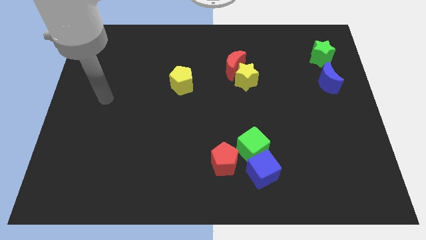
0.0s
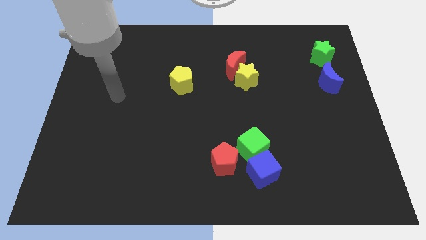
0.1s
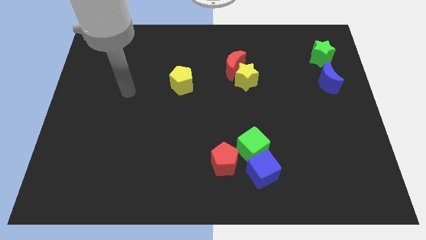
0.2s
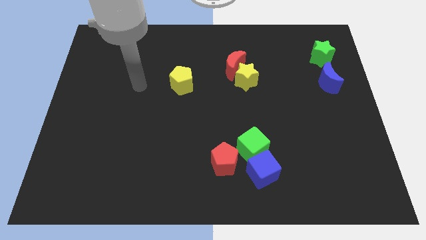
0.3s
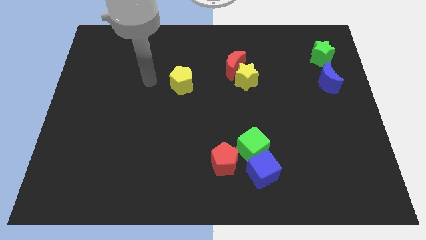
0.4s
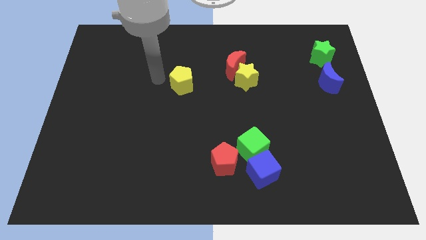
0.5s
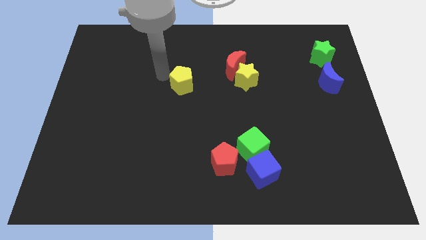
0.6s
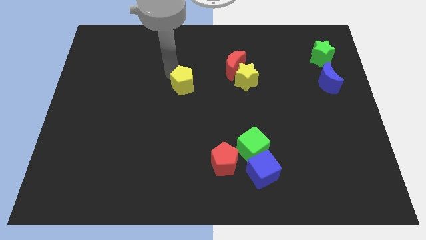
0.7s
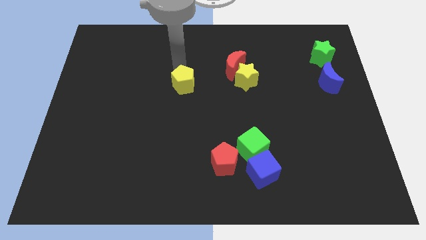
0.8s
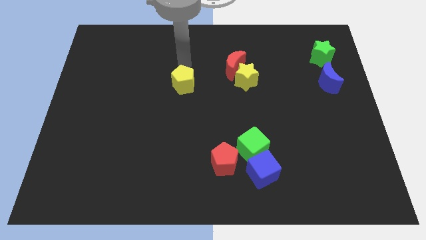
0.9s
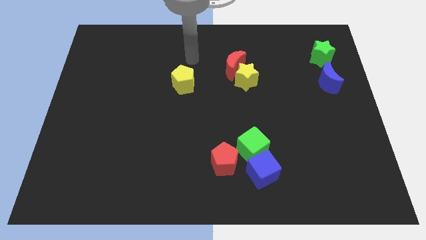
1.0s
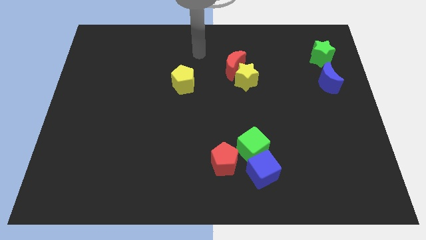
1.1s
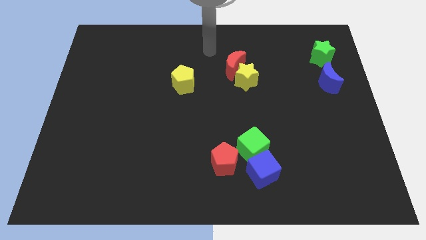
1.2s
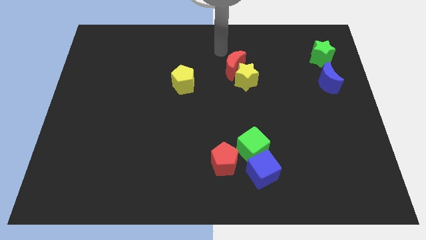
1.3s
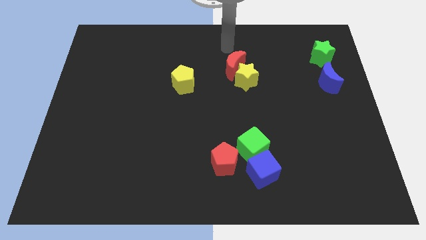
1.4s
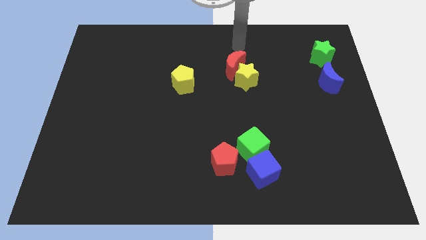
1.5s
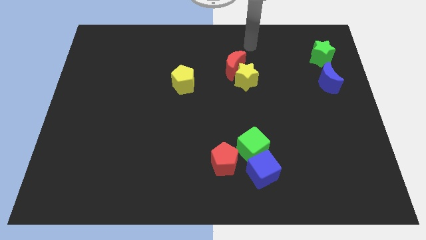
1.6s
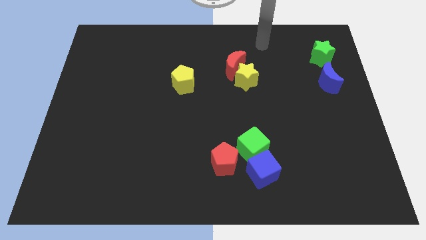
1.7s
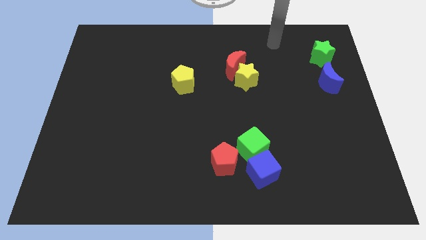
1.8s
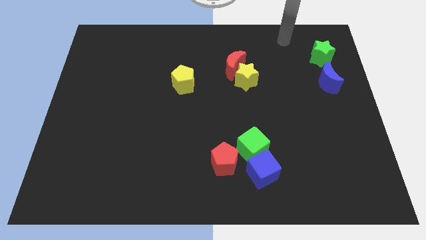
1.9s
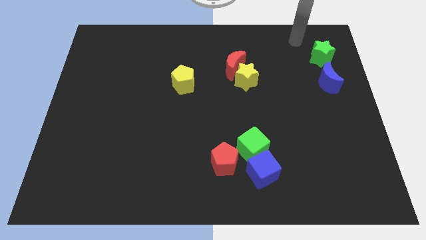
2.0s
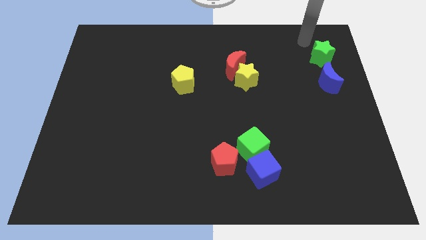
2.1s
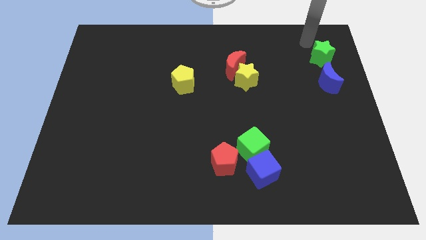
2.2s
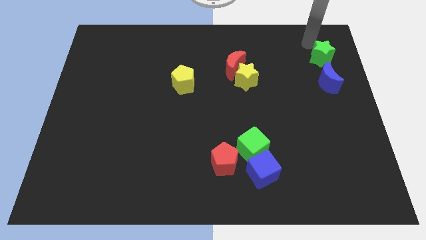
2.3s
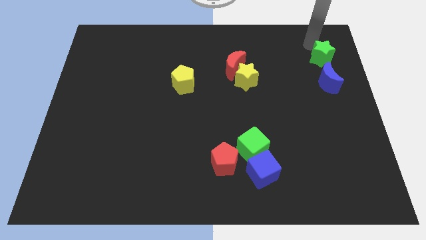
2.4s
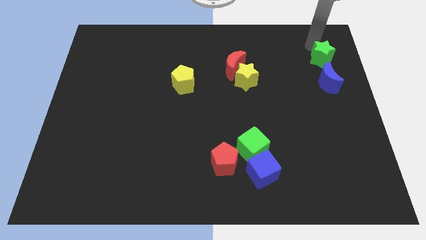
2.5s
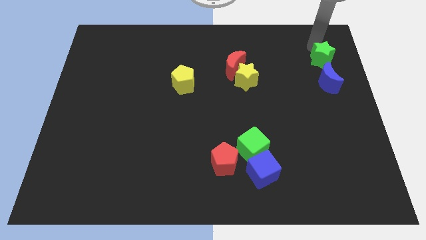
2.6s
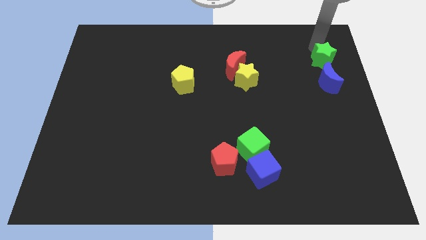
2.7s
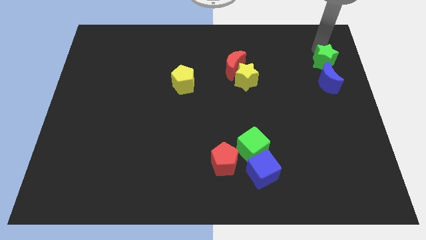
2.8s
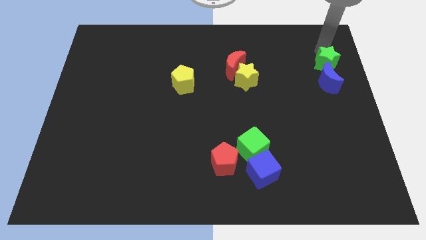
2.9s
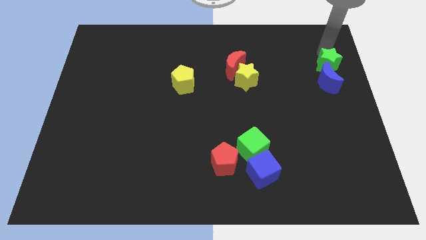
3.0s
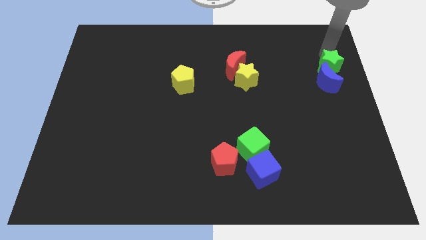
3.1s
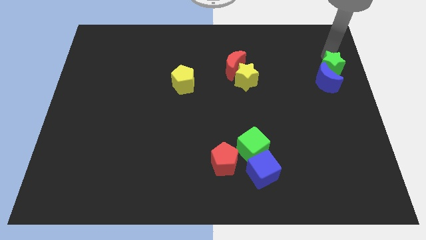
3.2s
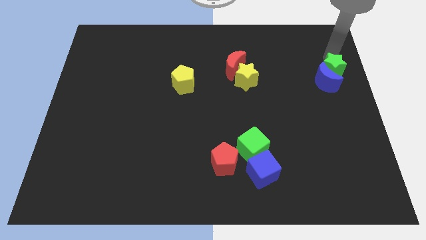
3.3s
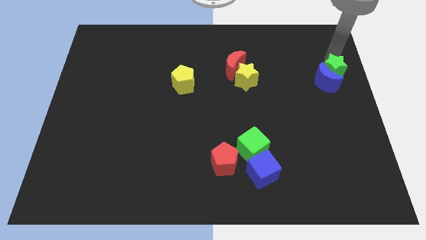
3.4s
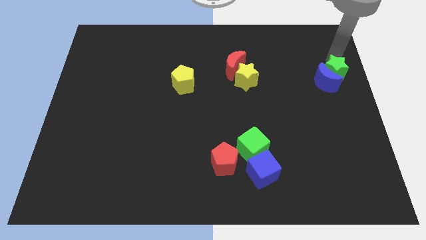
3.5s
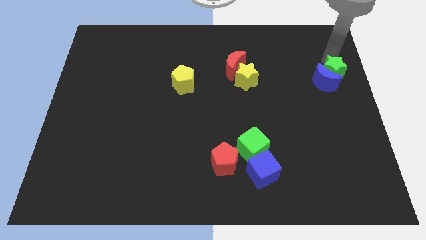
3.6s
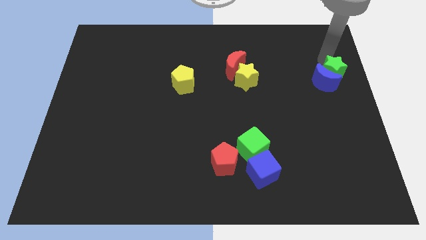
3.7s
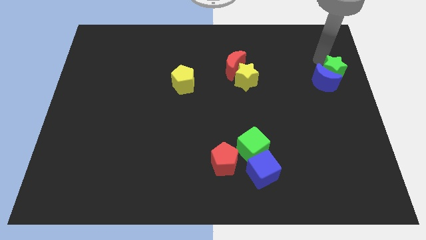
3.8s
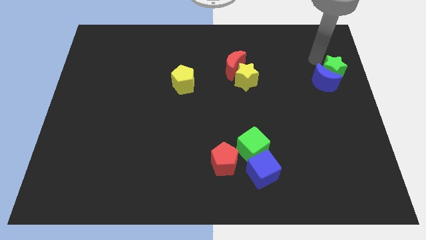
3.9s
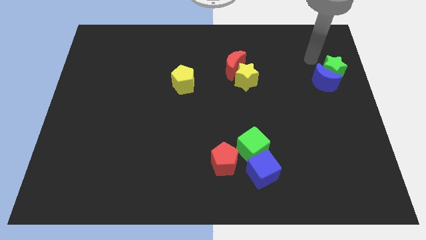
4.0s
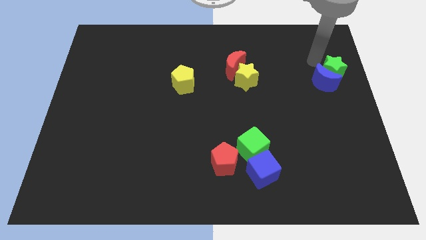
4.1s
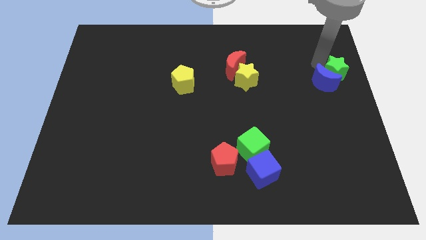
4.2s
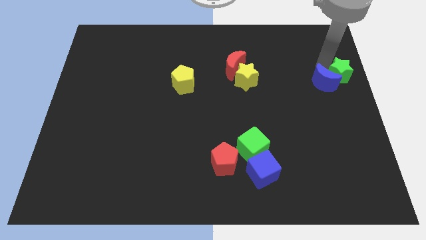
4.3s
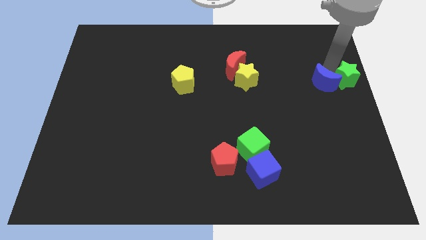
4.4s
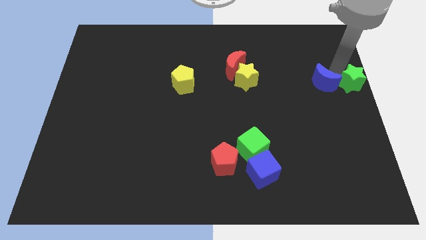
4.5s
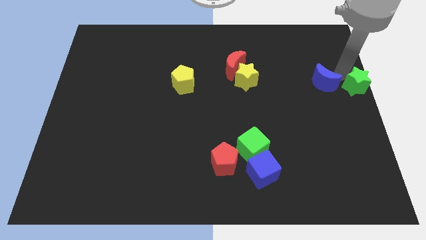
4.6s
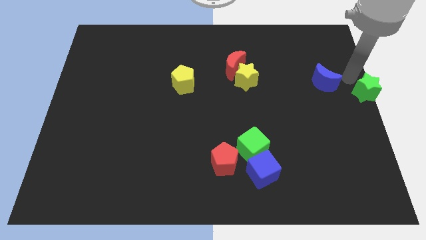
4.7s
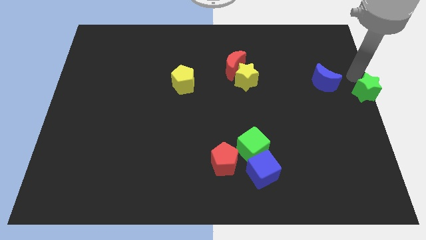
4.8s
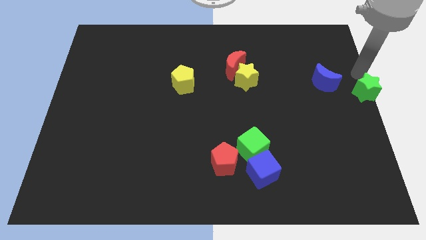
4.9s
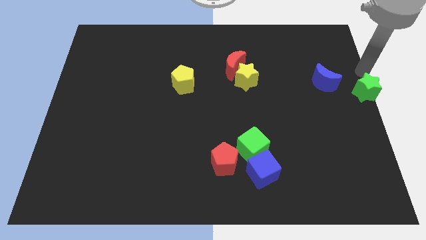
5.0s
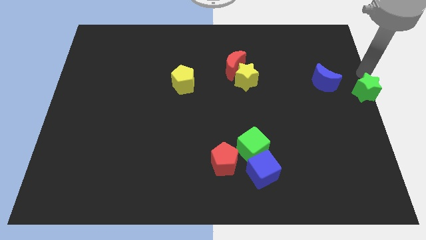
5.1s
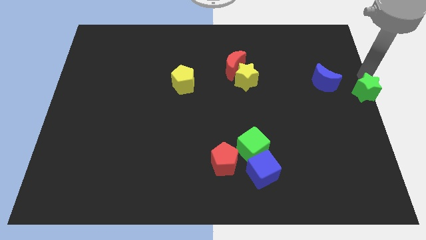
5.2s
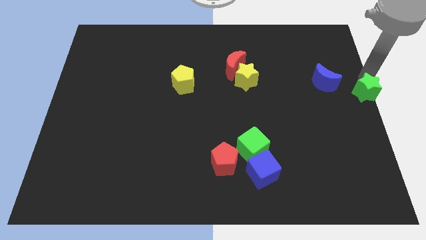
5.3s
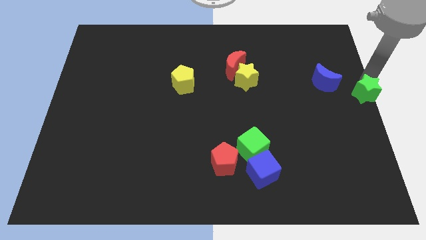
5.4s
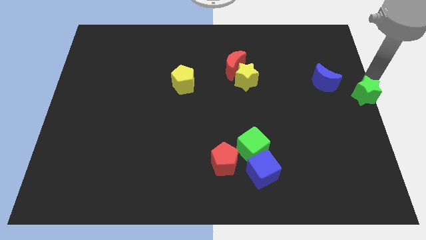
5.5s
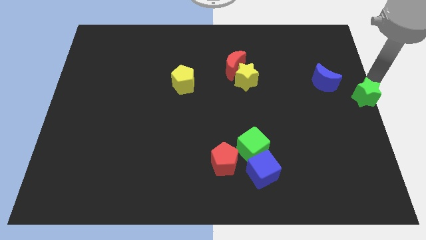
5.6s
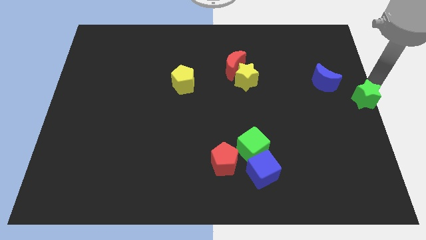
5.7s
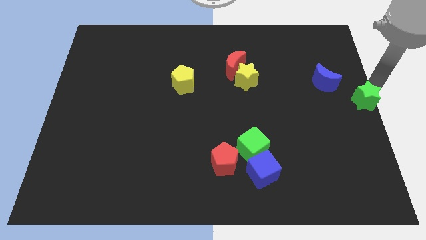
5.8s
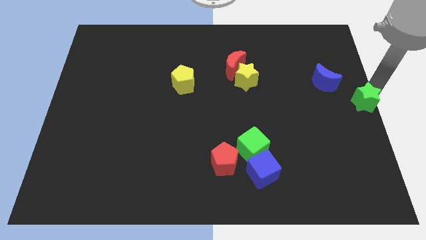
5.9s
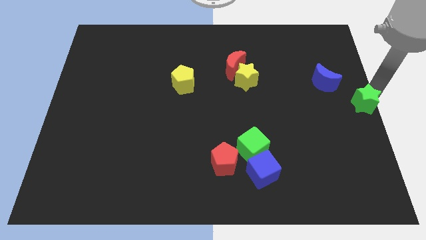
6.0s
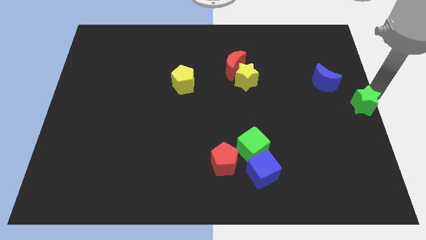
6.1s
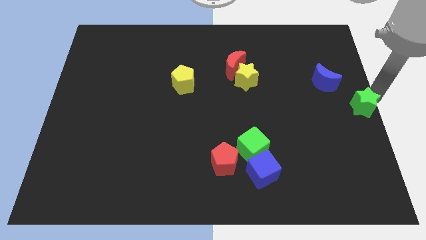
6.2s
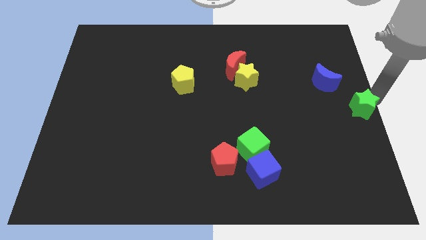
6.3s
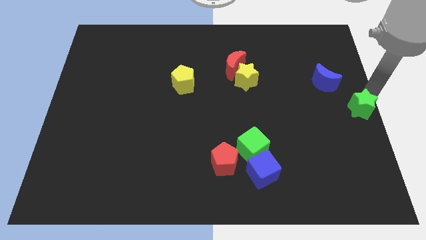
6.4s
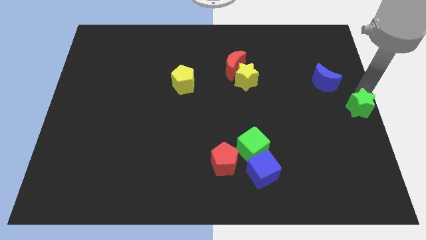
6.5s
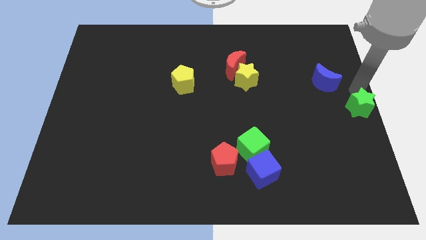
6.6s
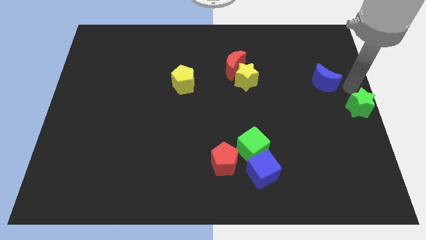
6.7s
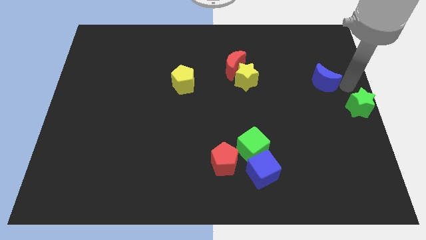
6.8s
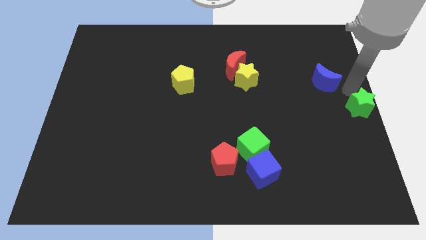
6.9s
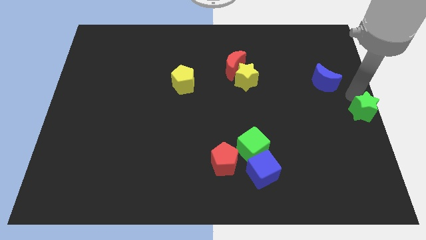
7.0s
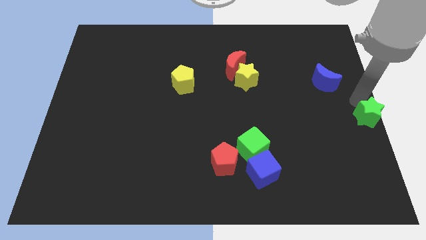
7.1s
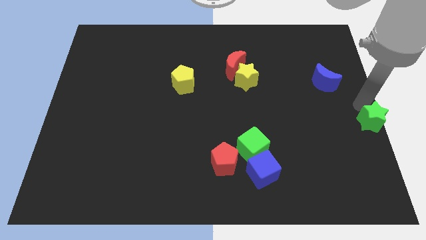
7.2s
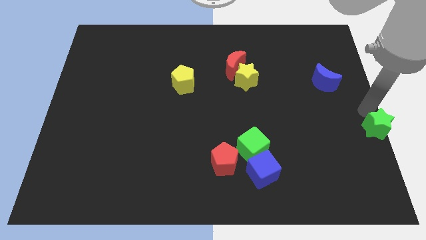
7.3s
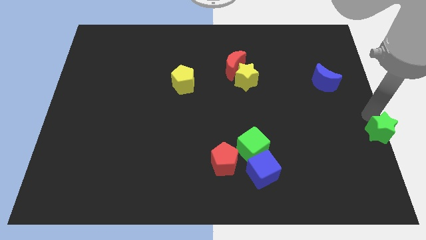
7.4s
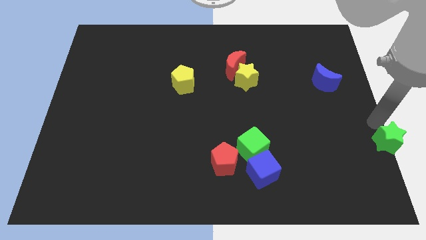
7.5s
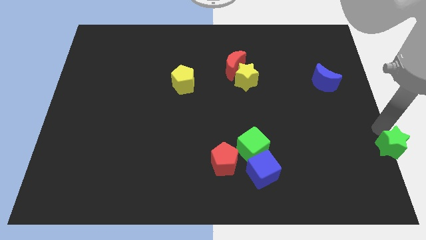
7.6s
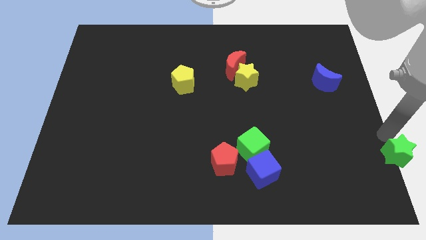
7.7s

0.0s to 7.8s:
push the green star to the lower right corner
